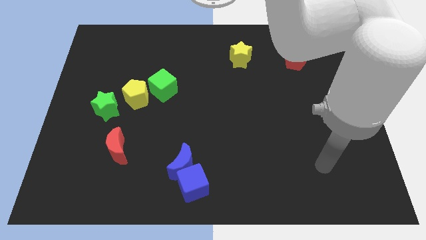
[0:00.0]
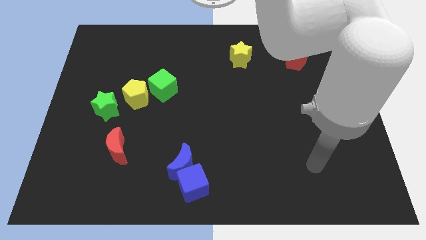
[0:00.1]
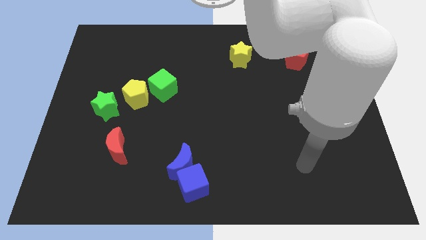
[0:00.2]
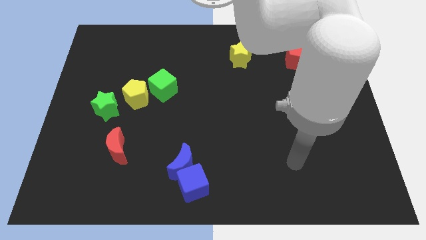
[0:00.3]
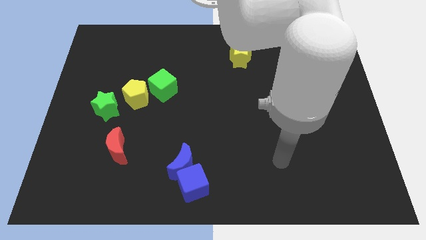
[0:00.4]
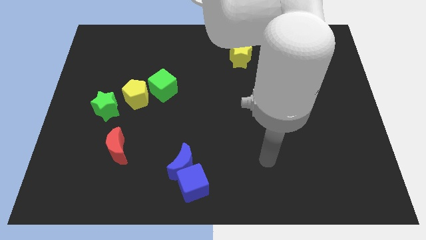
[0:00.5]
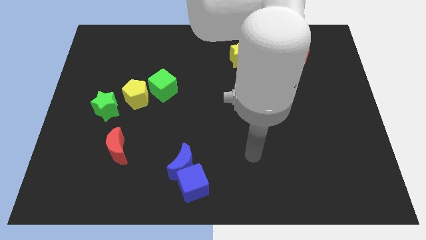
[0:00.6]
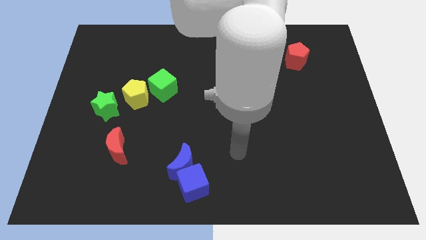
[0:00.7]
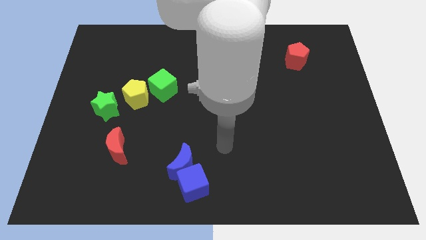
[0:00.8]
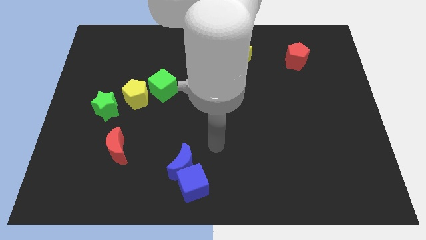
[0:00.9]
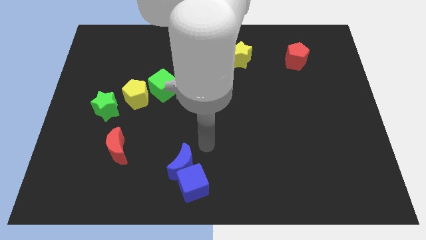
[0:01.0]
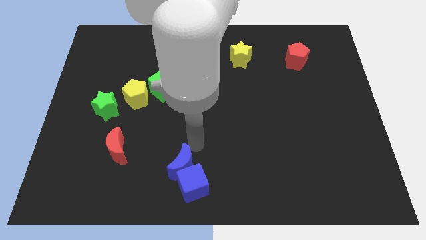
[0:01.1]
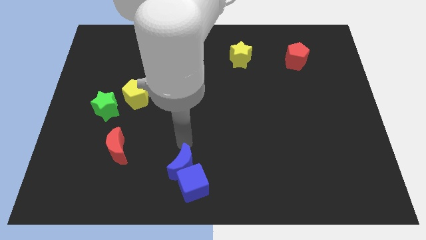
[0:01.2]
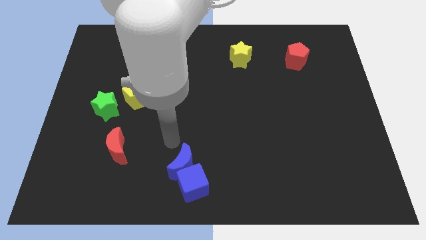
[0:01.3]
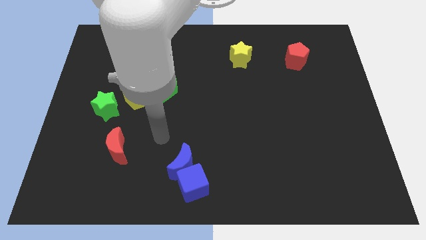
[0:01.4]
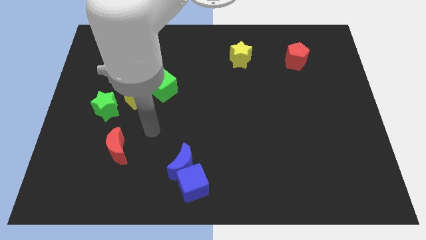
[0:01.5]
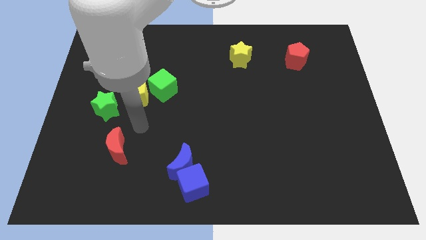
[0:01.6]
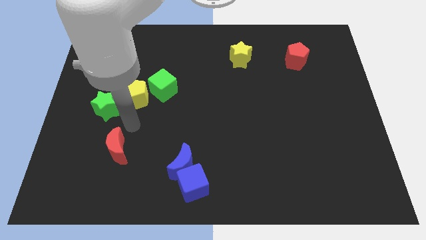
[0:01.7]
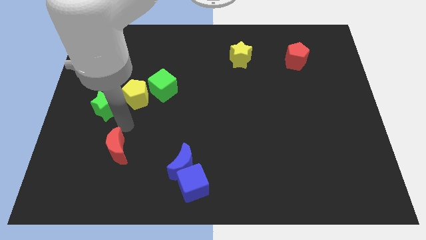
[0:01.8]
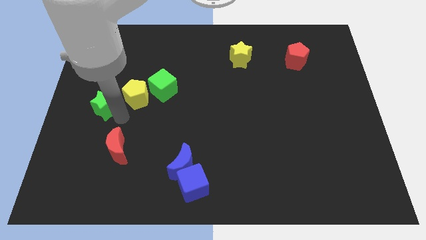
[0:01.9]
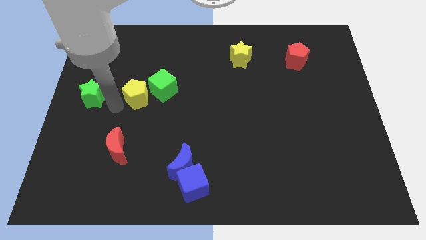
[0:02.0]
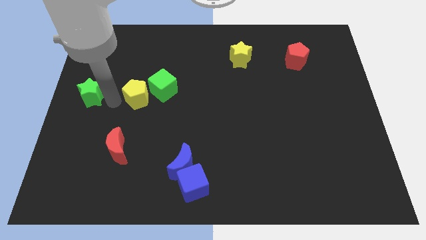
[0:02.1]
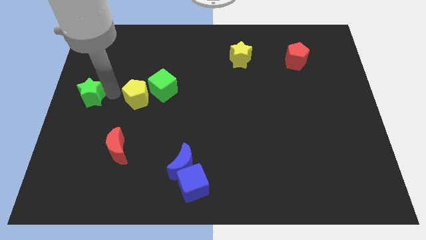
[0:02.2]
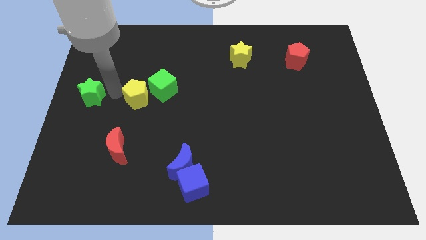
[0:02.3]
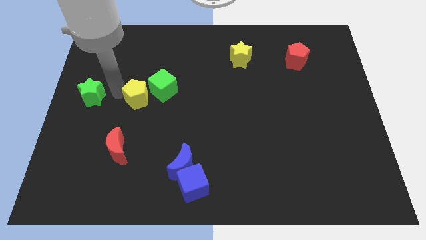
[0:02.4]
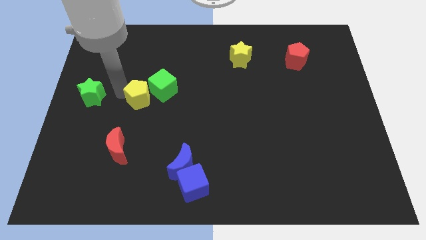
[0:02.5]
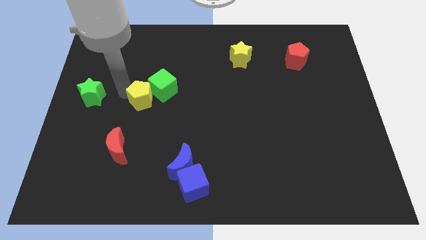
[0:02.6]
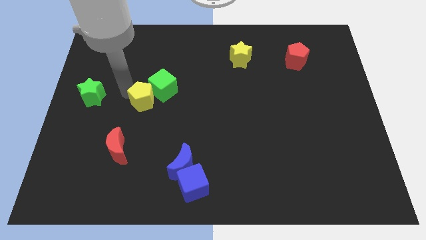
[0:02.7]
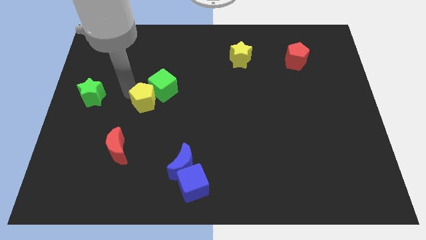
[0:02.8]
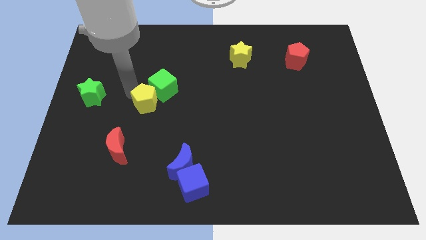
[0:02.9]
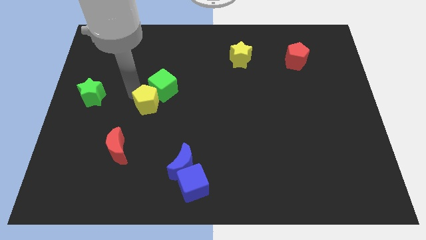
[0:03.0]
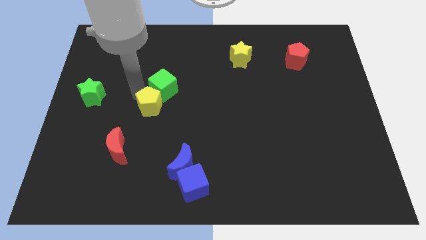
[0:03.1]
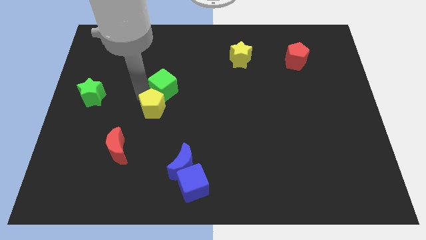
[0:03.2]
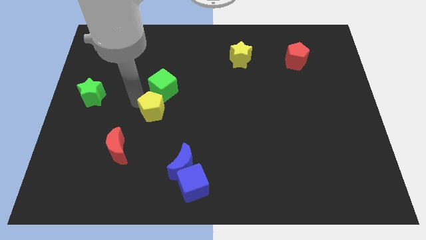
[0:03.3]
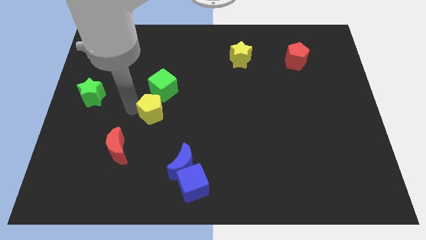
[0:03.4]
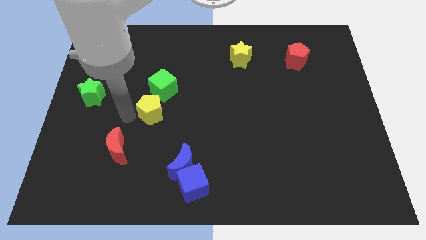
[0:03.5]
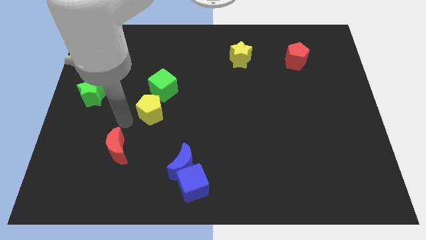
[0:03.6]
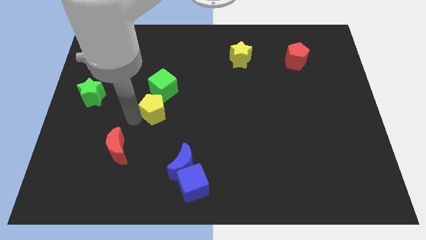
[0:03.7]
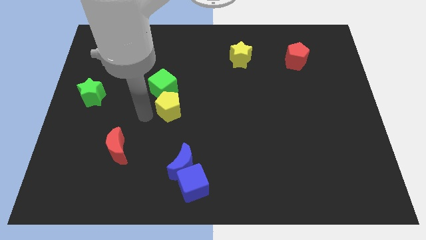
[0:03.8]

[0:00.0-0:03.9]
push the yellow pentagon right a little bit

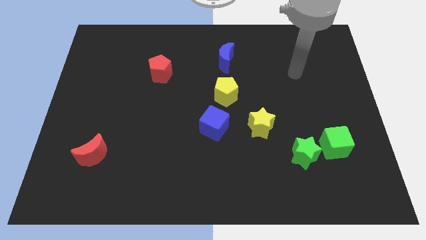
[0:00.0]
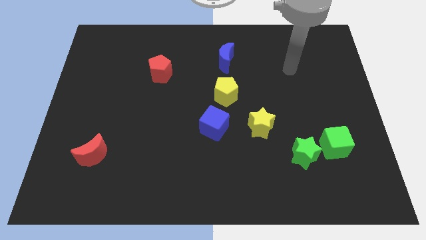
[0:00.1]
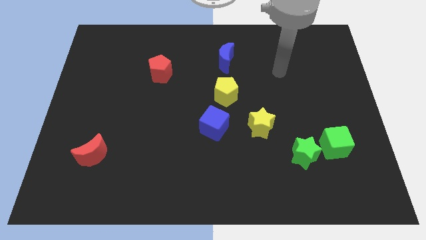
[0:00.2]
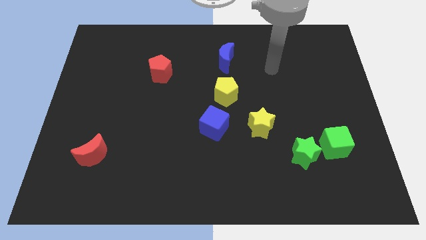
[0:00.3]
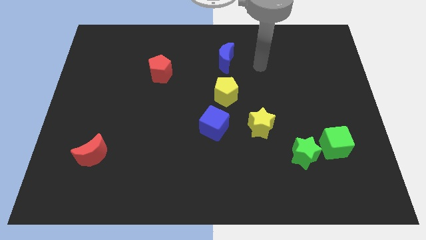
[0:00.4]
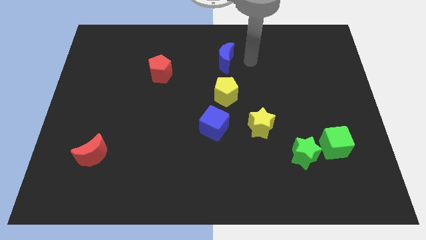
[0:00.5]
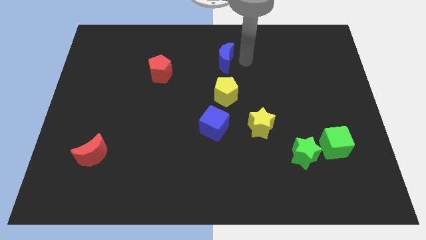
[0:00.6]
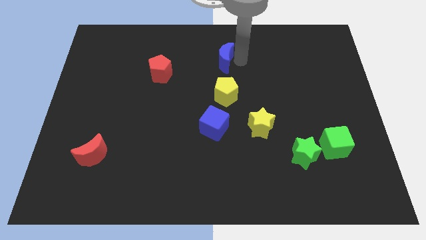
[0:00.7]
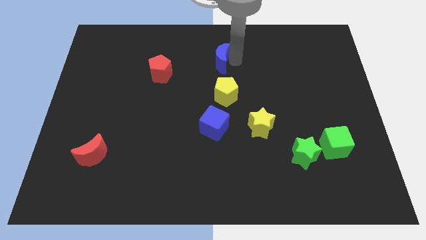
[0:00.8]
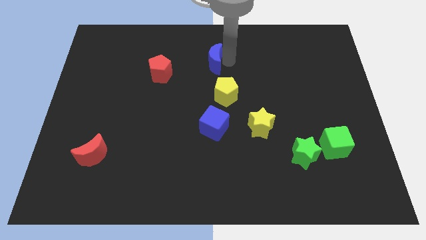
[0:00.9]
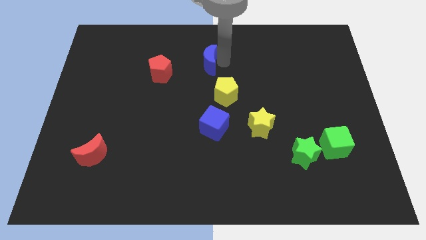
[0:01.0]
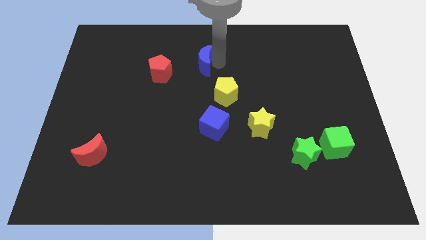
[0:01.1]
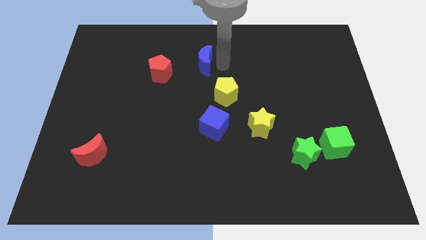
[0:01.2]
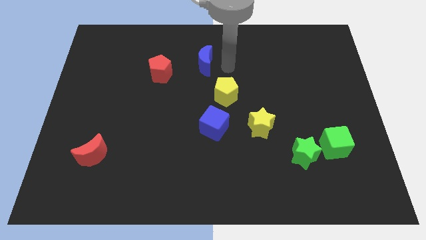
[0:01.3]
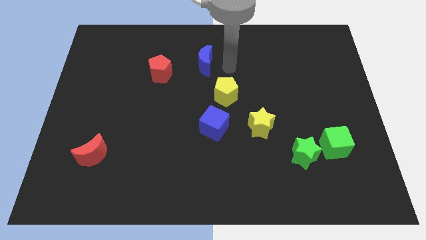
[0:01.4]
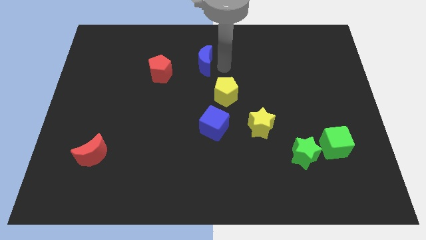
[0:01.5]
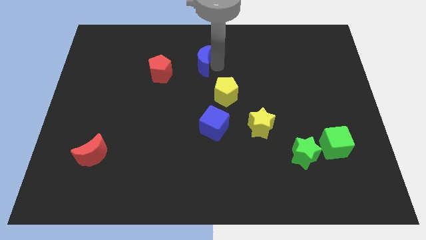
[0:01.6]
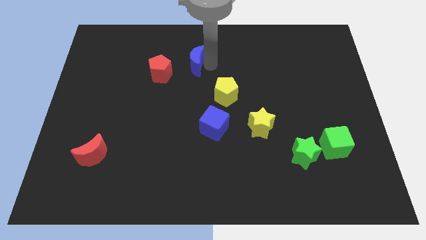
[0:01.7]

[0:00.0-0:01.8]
move the blue moon left somewhat

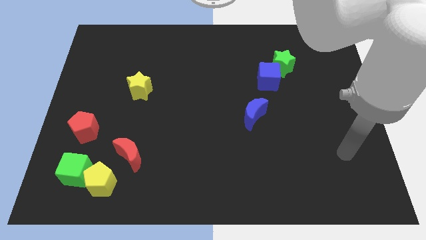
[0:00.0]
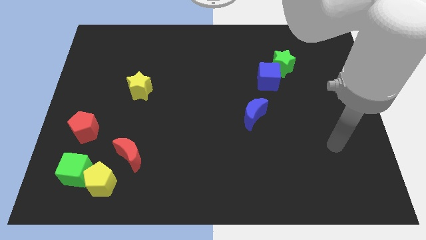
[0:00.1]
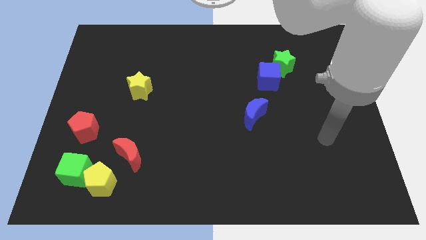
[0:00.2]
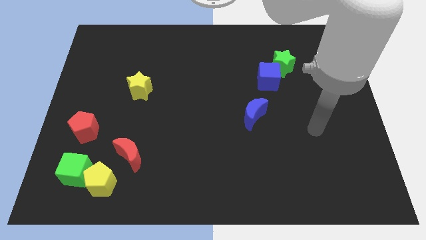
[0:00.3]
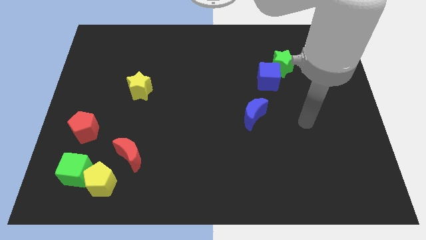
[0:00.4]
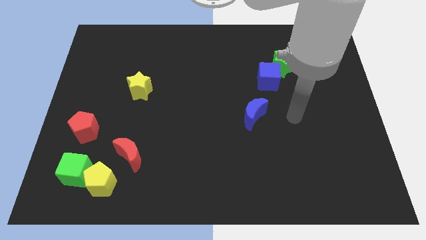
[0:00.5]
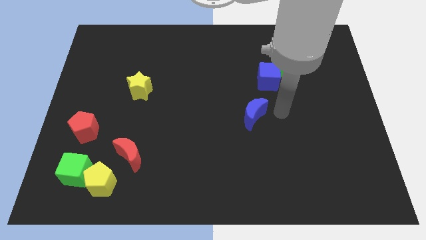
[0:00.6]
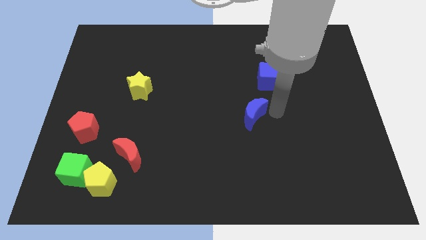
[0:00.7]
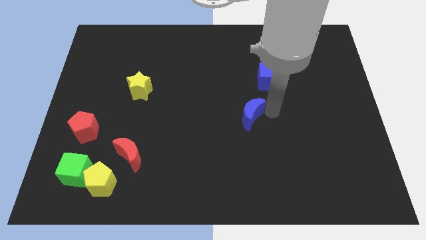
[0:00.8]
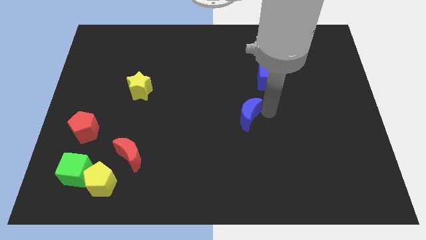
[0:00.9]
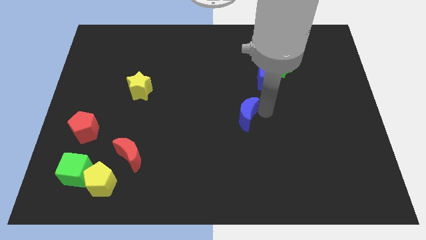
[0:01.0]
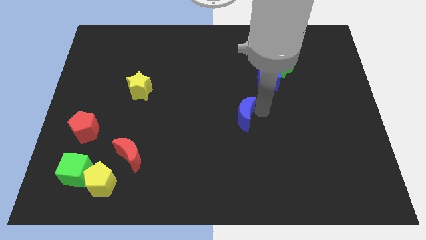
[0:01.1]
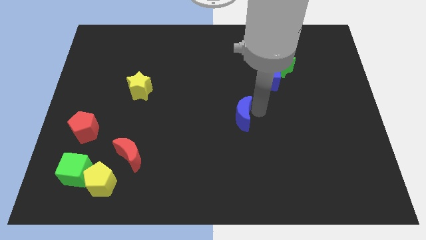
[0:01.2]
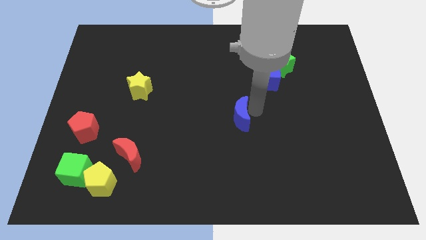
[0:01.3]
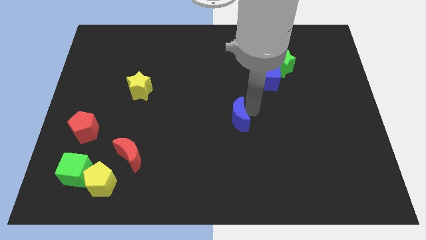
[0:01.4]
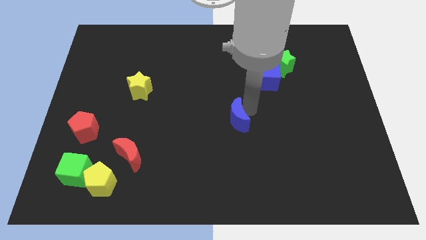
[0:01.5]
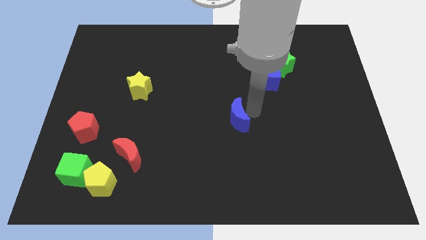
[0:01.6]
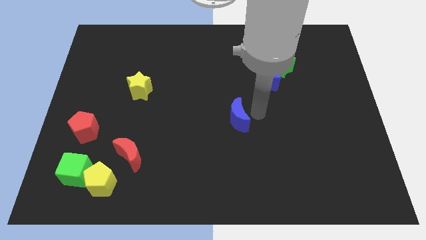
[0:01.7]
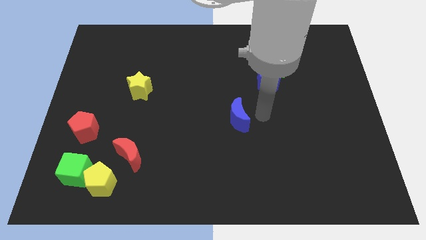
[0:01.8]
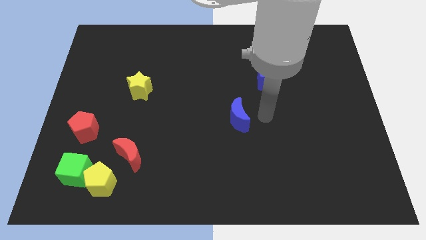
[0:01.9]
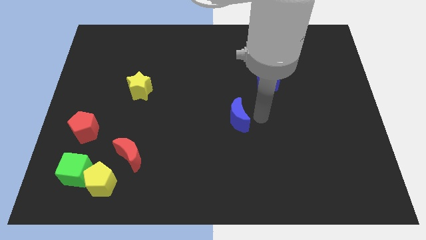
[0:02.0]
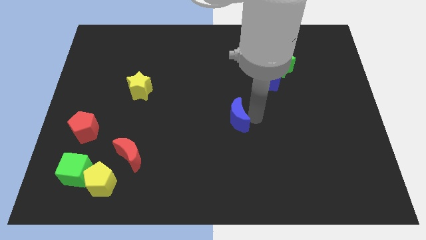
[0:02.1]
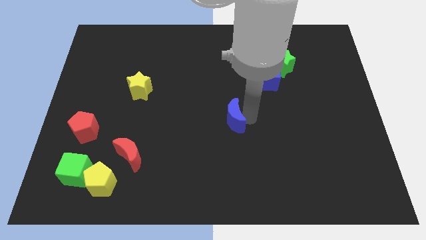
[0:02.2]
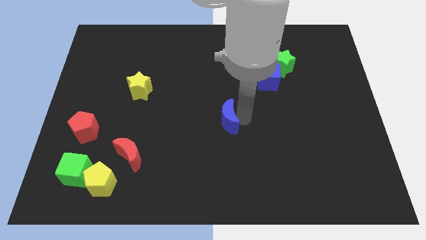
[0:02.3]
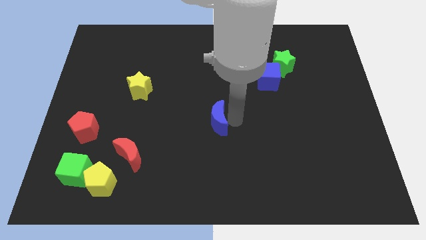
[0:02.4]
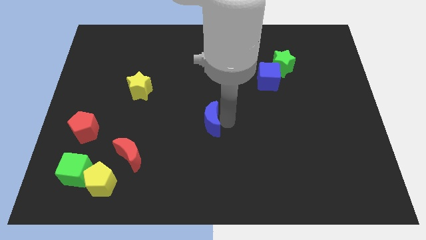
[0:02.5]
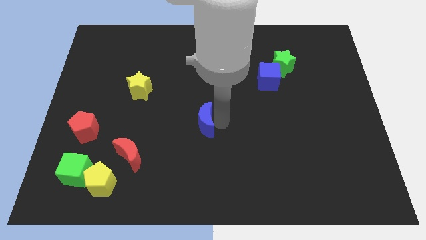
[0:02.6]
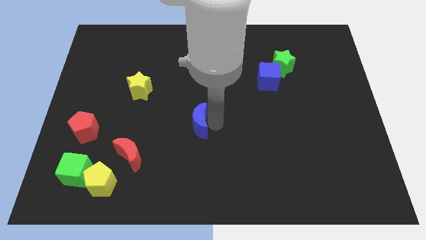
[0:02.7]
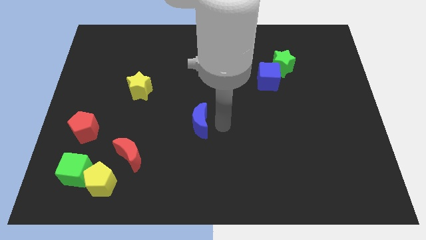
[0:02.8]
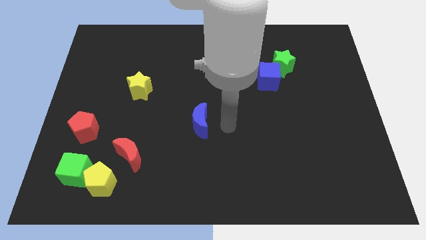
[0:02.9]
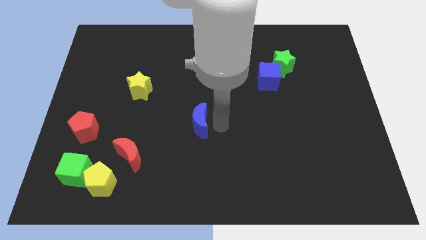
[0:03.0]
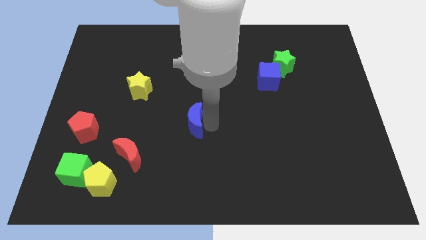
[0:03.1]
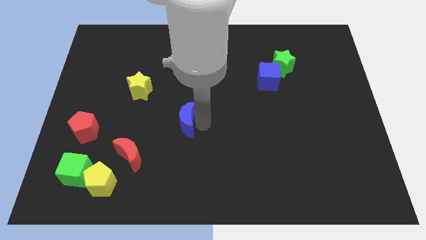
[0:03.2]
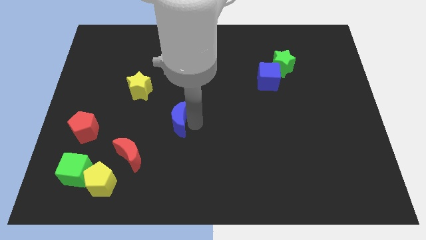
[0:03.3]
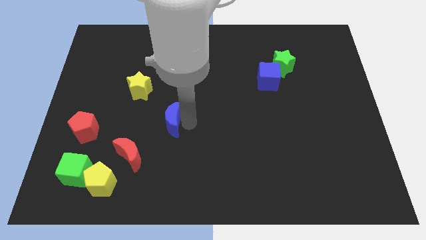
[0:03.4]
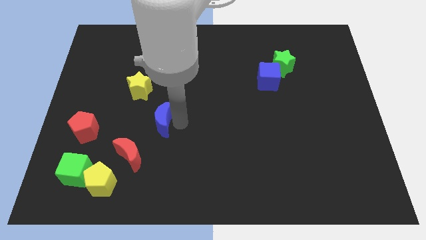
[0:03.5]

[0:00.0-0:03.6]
slide the blue moon to the left
